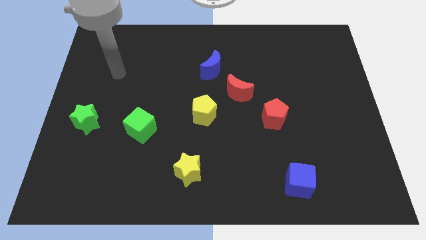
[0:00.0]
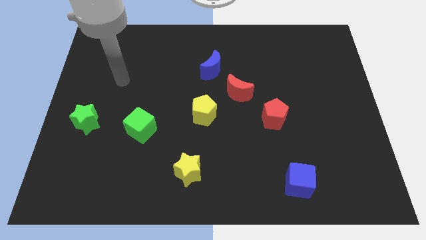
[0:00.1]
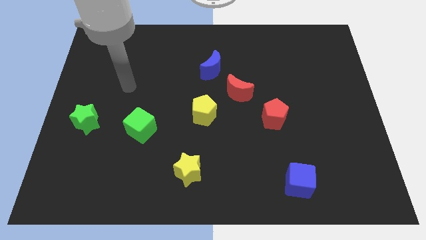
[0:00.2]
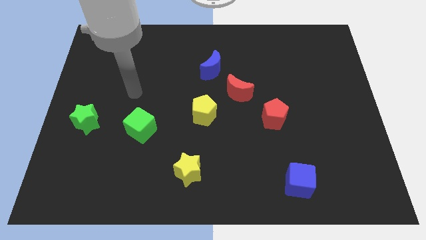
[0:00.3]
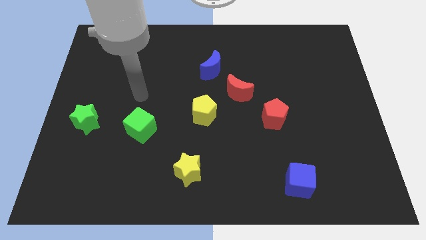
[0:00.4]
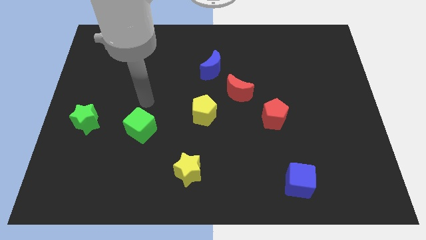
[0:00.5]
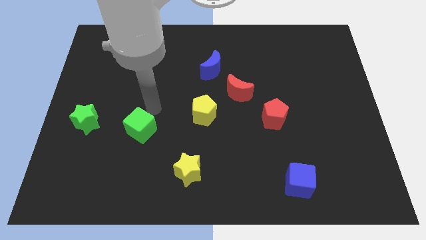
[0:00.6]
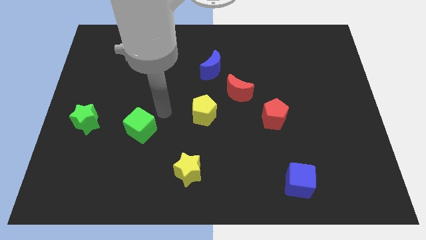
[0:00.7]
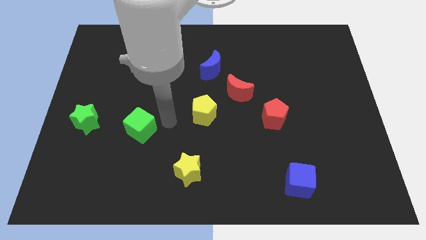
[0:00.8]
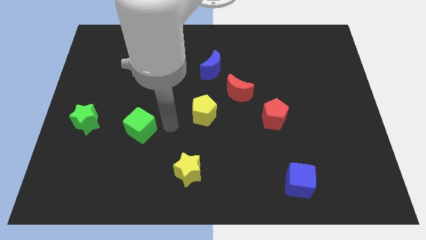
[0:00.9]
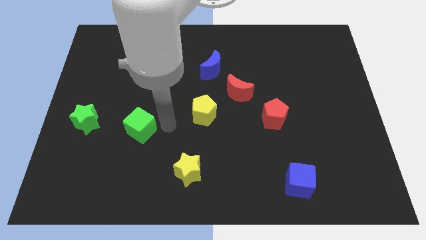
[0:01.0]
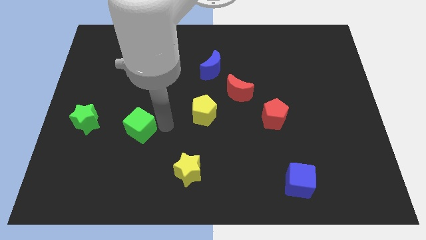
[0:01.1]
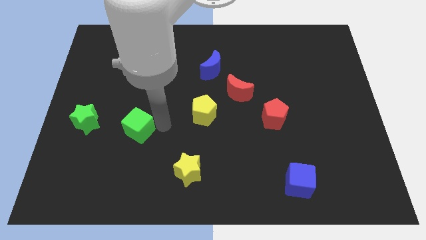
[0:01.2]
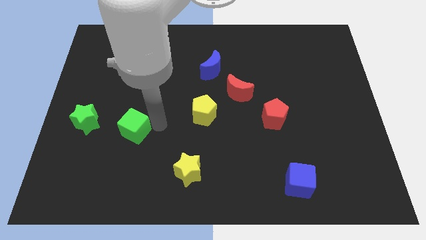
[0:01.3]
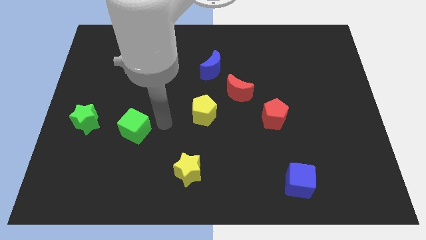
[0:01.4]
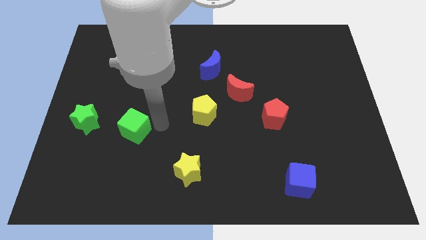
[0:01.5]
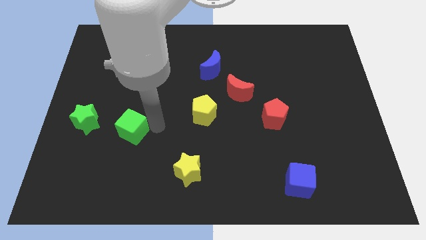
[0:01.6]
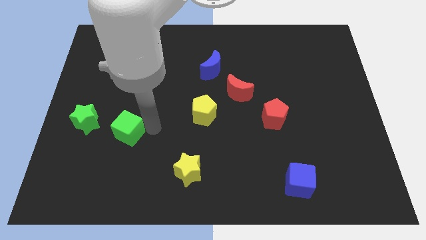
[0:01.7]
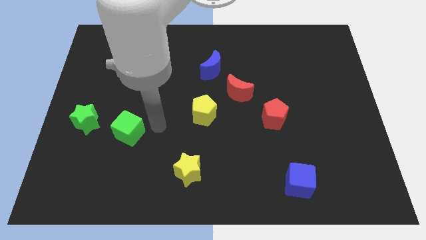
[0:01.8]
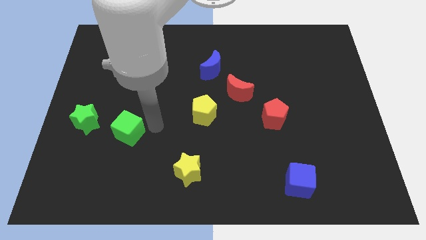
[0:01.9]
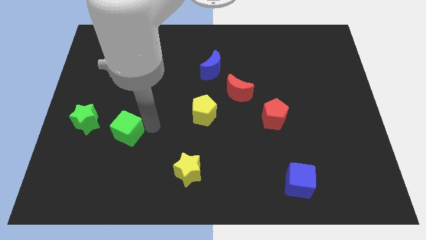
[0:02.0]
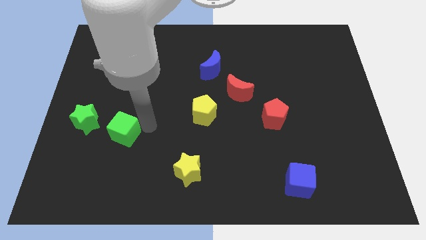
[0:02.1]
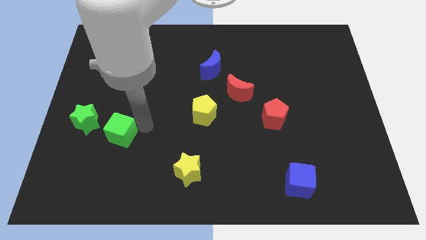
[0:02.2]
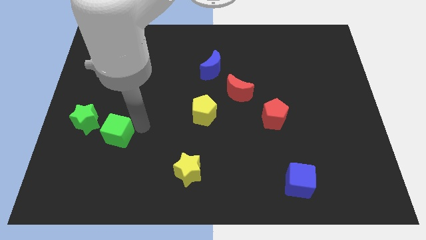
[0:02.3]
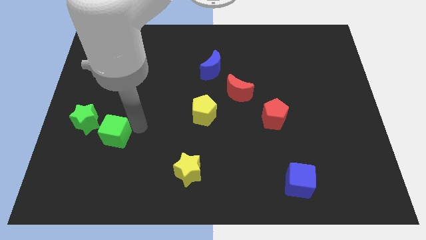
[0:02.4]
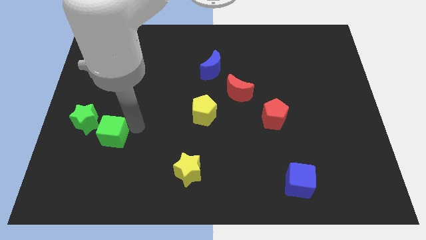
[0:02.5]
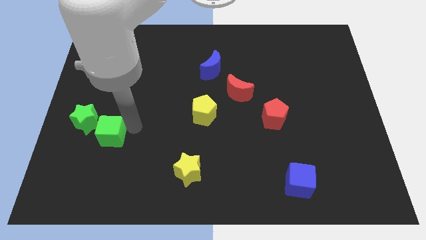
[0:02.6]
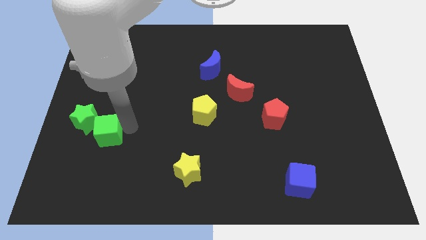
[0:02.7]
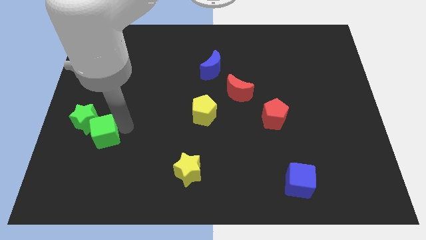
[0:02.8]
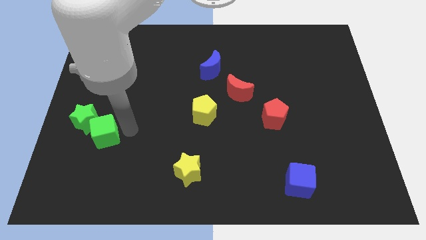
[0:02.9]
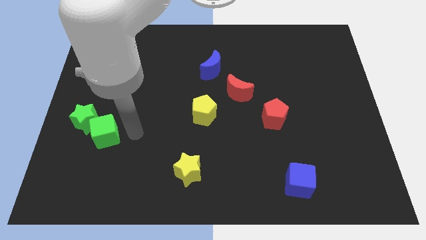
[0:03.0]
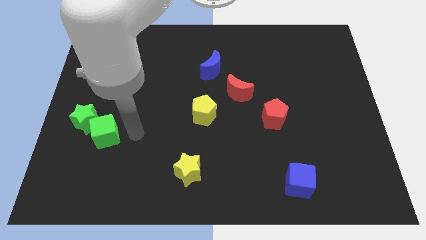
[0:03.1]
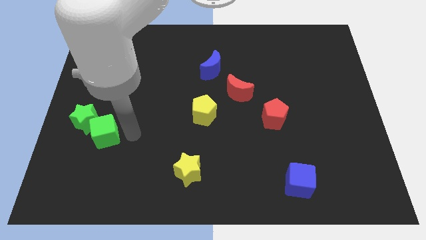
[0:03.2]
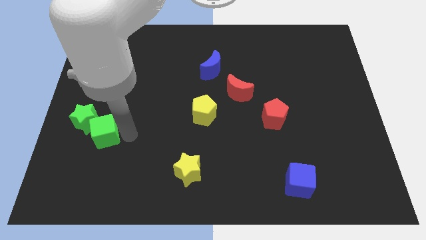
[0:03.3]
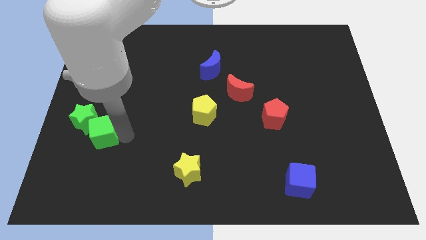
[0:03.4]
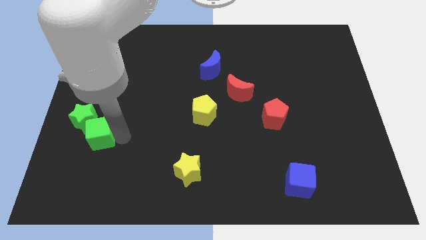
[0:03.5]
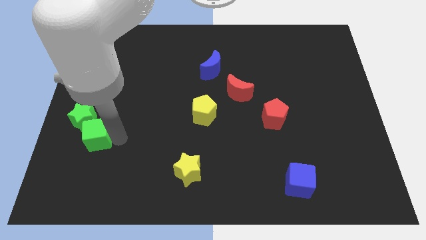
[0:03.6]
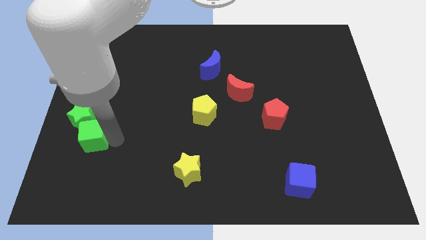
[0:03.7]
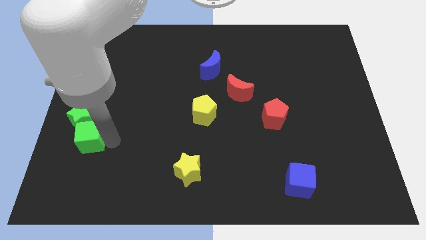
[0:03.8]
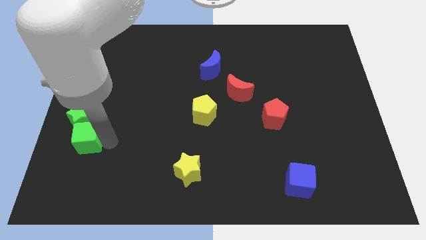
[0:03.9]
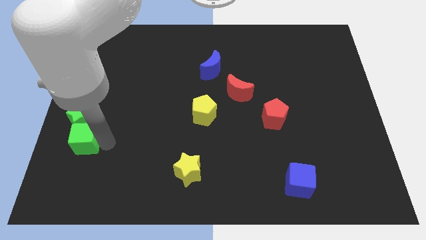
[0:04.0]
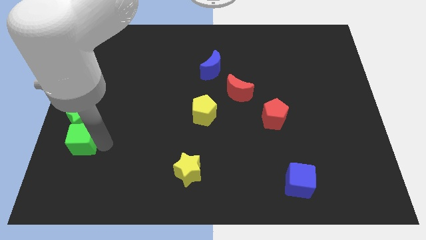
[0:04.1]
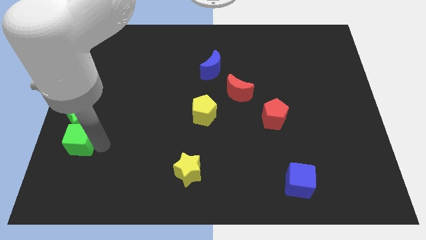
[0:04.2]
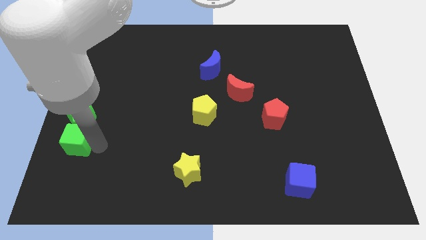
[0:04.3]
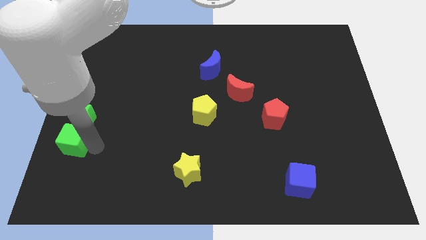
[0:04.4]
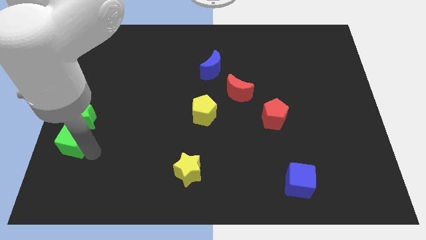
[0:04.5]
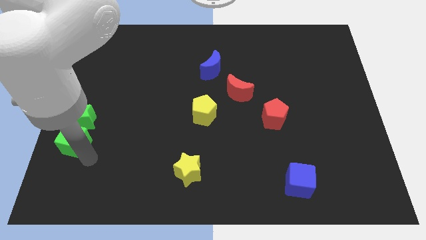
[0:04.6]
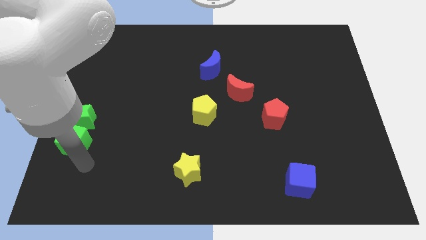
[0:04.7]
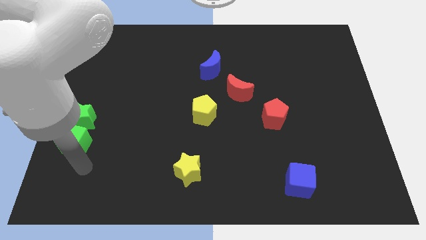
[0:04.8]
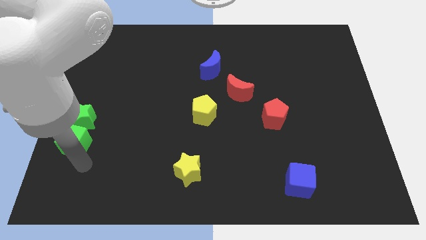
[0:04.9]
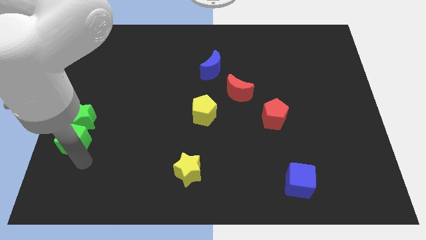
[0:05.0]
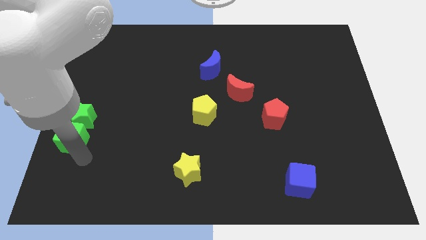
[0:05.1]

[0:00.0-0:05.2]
move the green cube to the center left

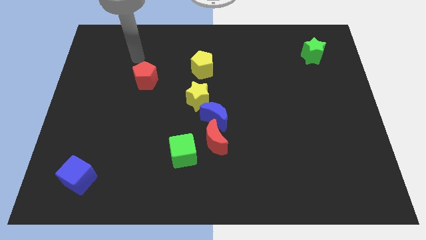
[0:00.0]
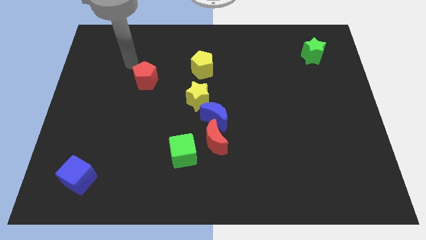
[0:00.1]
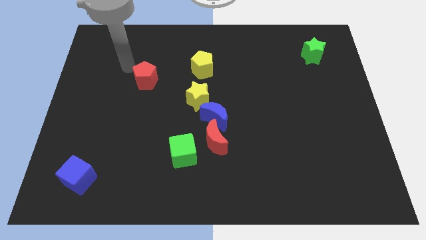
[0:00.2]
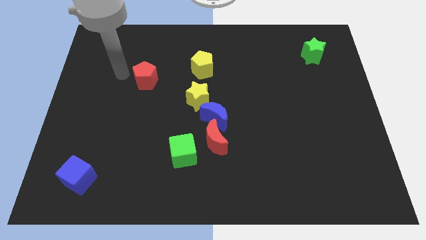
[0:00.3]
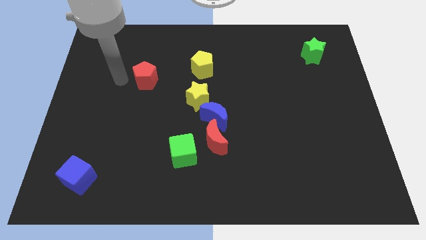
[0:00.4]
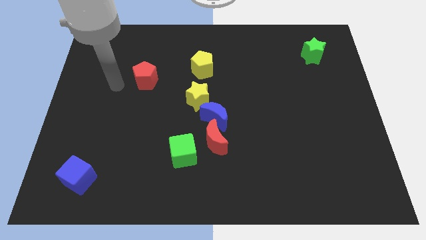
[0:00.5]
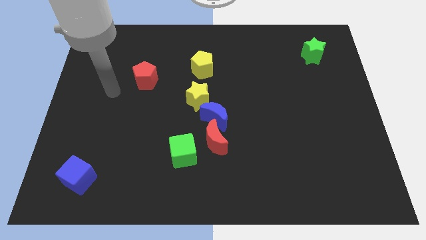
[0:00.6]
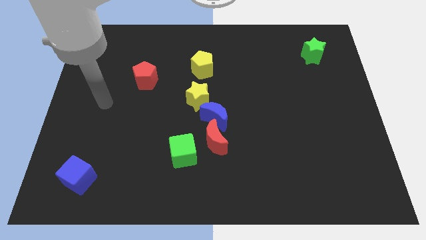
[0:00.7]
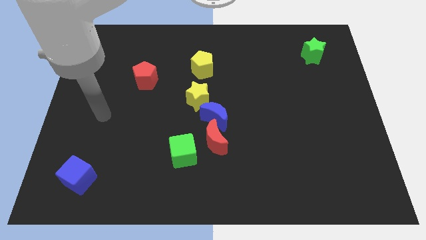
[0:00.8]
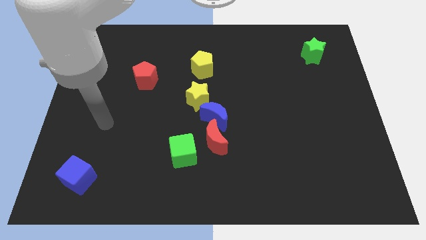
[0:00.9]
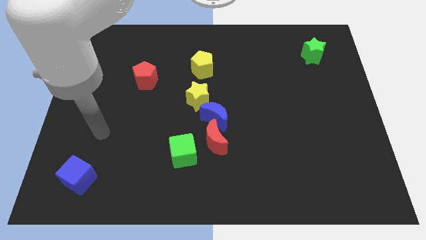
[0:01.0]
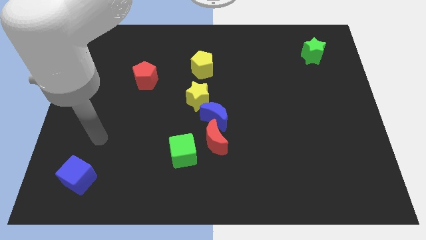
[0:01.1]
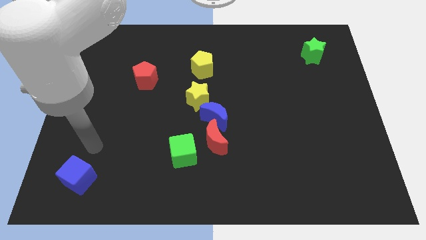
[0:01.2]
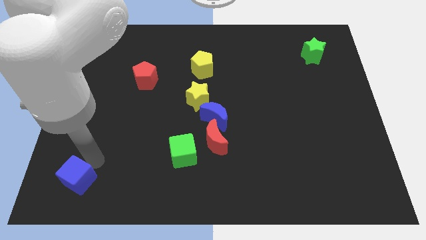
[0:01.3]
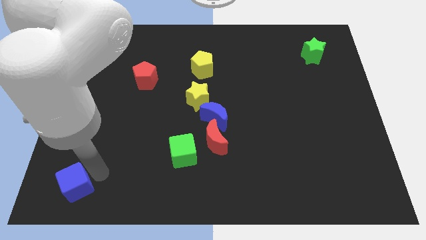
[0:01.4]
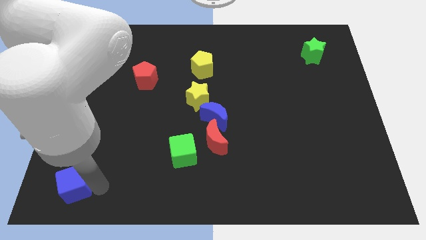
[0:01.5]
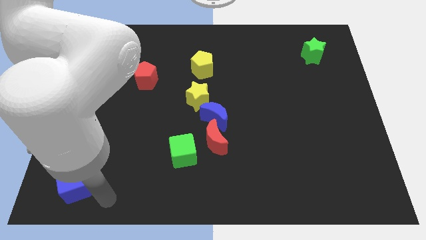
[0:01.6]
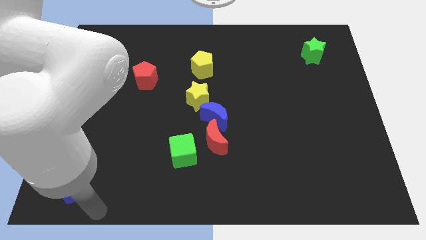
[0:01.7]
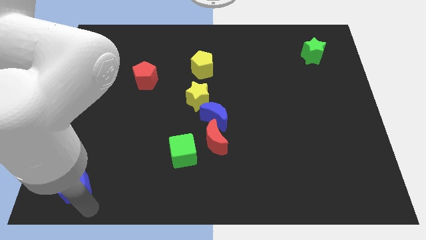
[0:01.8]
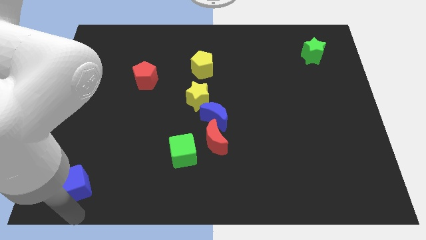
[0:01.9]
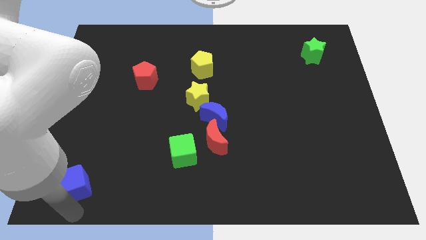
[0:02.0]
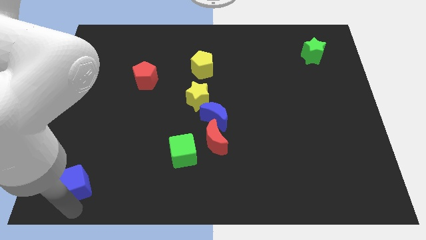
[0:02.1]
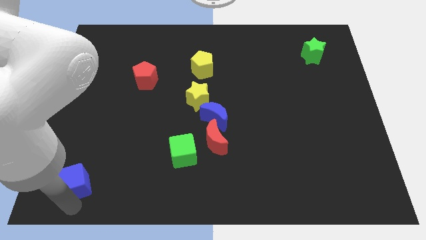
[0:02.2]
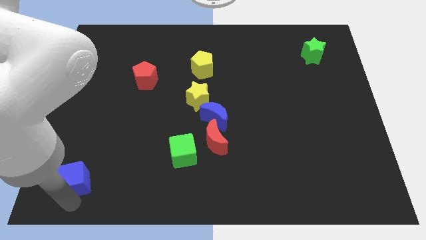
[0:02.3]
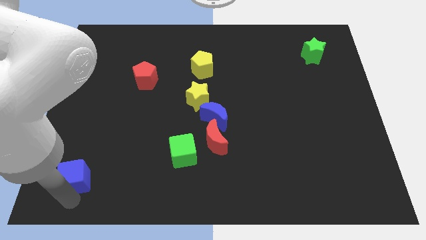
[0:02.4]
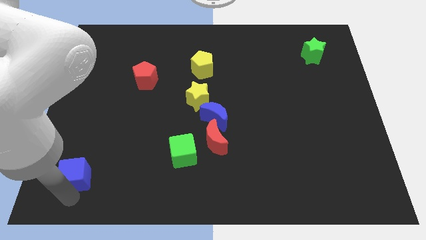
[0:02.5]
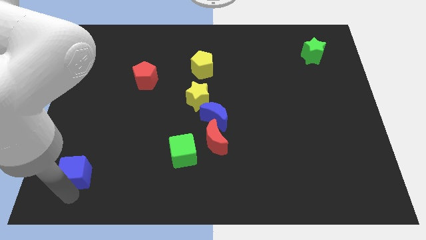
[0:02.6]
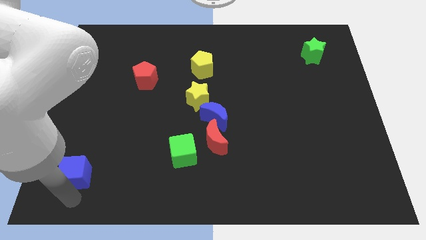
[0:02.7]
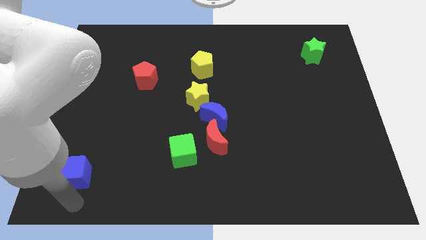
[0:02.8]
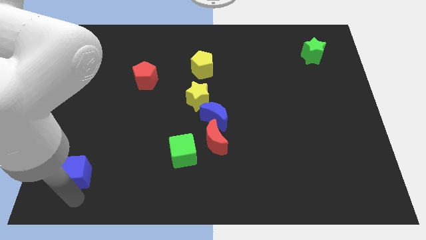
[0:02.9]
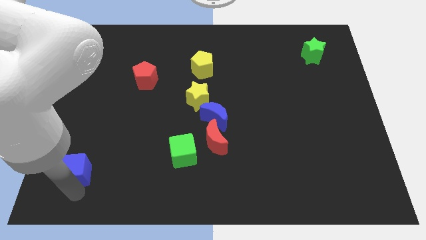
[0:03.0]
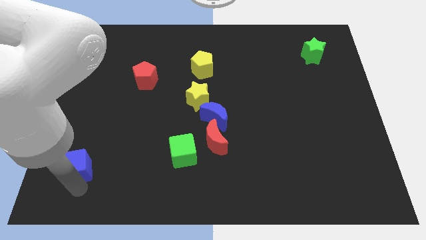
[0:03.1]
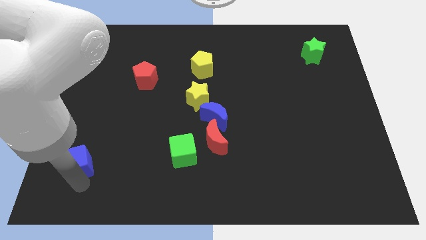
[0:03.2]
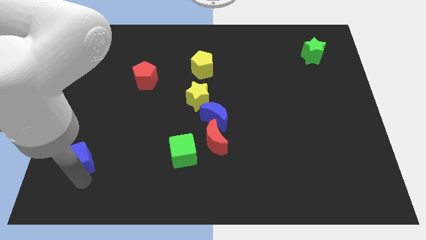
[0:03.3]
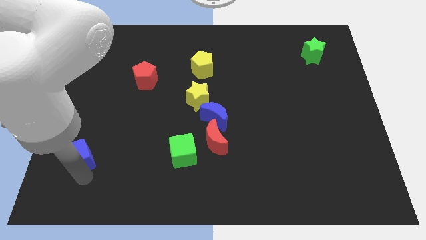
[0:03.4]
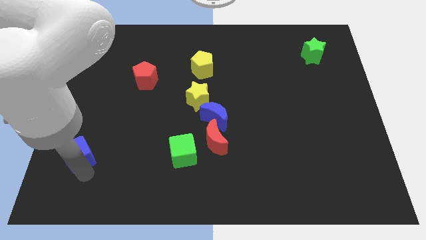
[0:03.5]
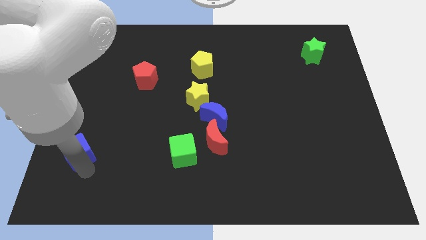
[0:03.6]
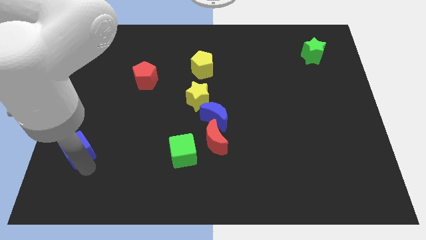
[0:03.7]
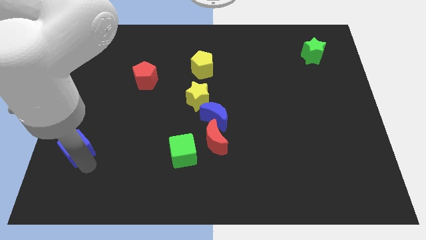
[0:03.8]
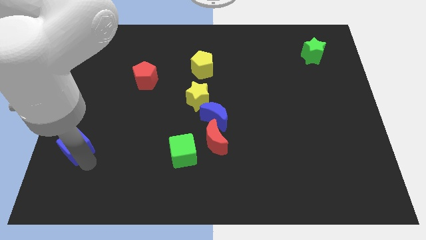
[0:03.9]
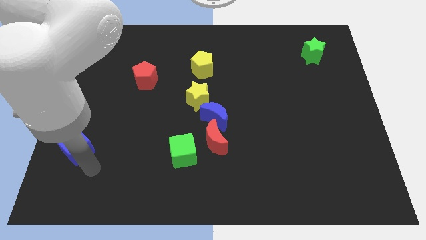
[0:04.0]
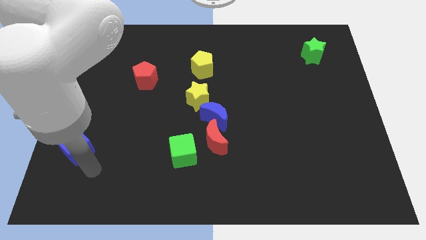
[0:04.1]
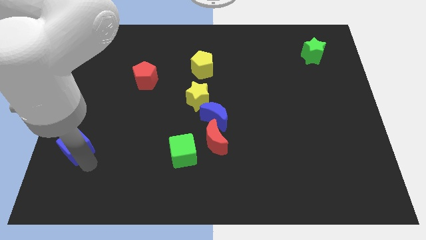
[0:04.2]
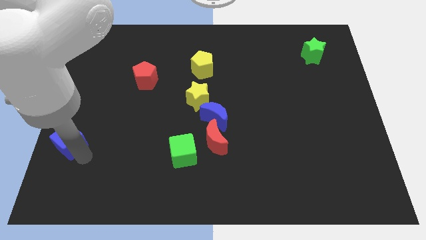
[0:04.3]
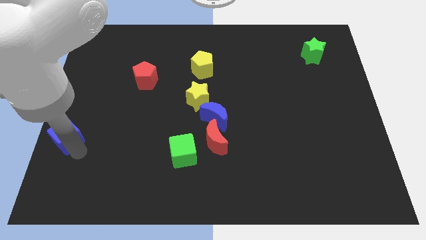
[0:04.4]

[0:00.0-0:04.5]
move the blue cube to the left side
